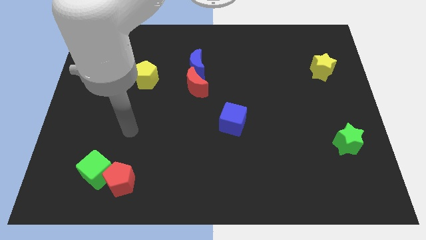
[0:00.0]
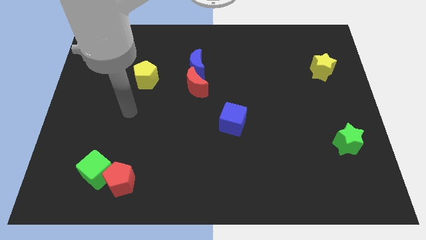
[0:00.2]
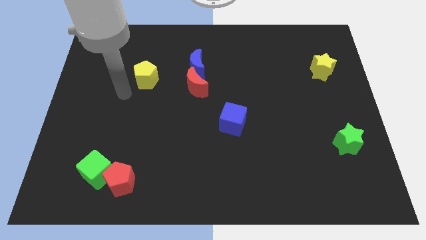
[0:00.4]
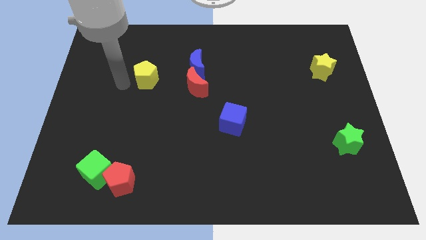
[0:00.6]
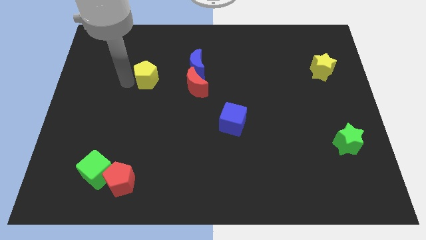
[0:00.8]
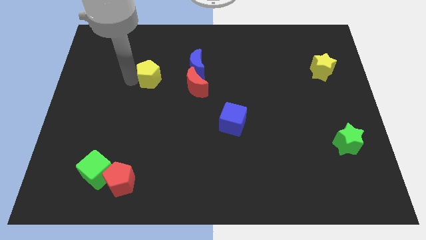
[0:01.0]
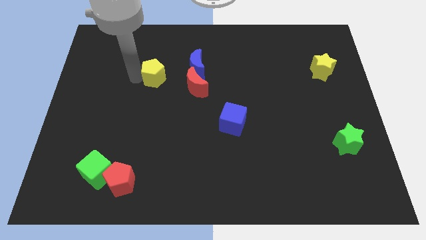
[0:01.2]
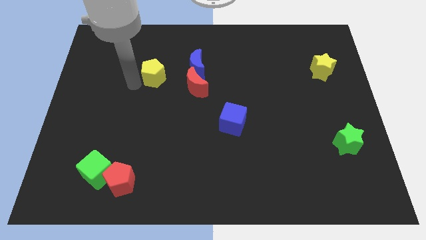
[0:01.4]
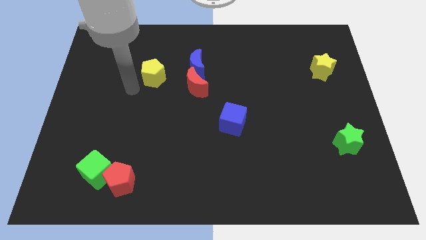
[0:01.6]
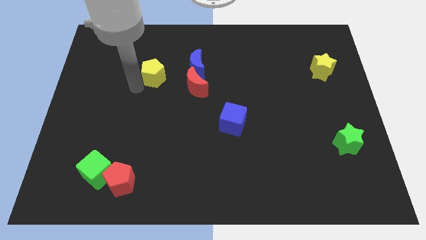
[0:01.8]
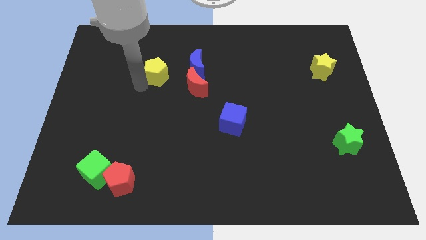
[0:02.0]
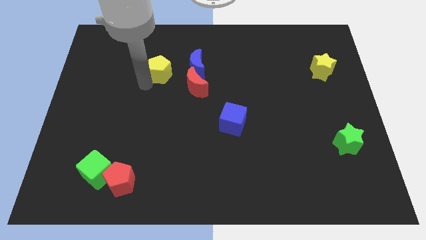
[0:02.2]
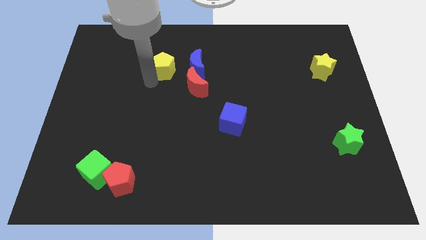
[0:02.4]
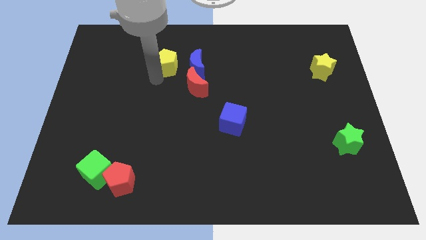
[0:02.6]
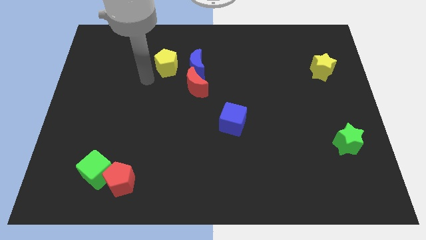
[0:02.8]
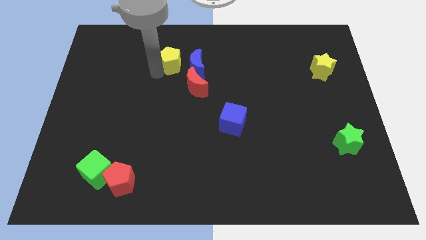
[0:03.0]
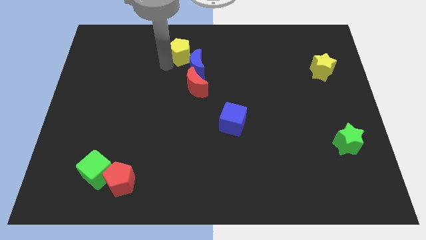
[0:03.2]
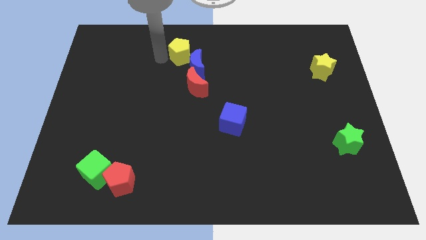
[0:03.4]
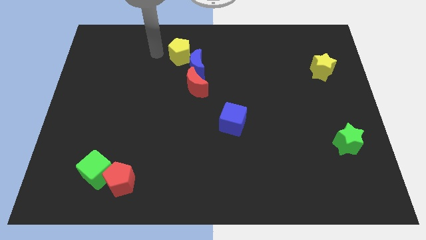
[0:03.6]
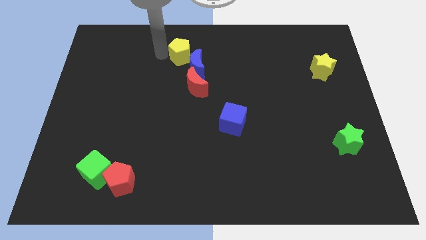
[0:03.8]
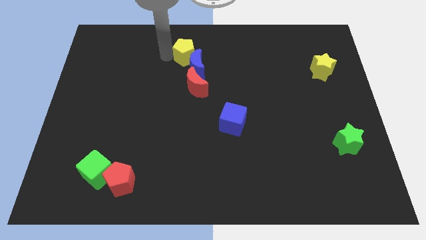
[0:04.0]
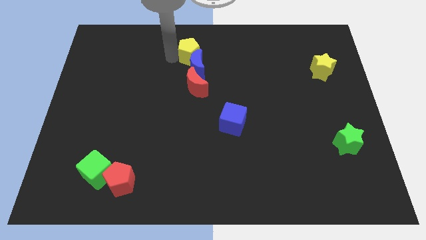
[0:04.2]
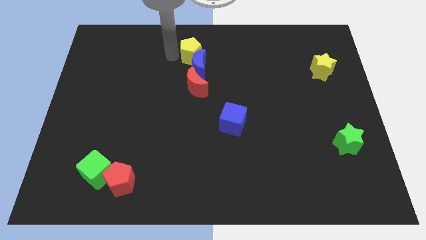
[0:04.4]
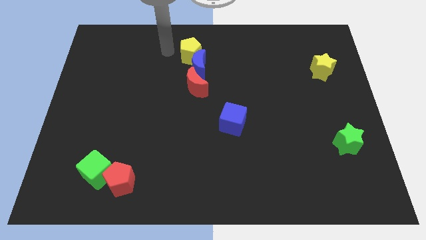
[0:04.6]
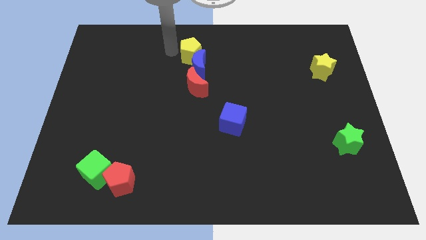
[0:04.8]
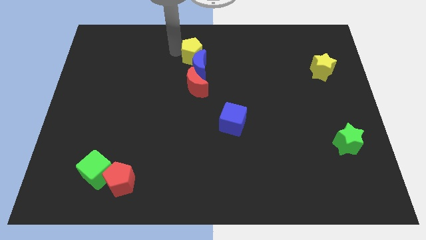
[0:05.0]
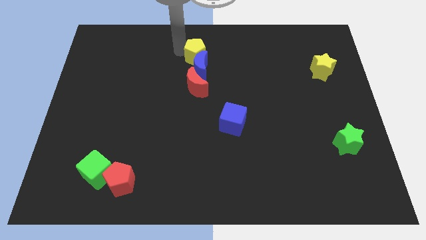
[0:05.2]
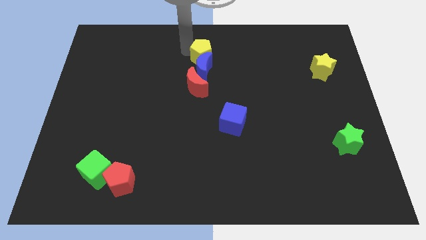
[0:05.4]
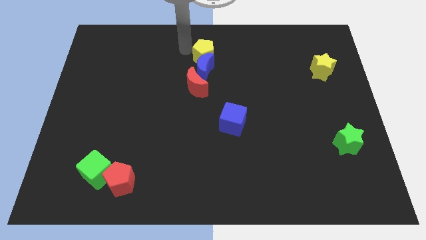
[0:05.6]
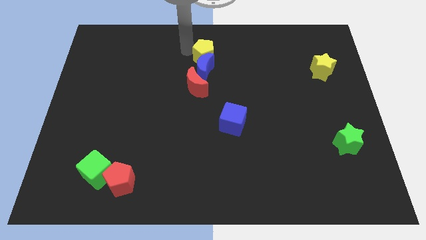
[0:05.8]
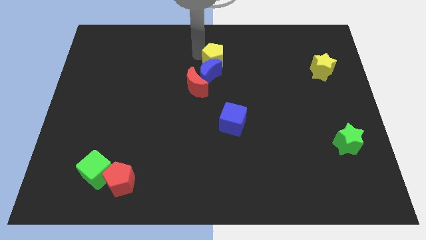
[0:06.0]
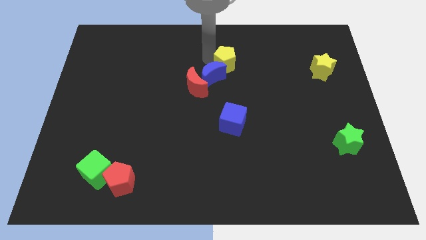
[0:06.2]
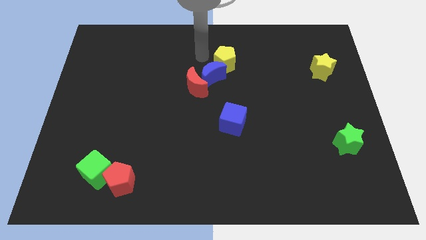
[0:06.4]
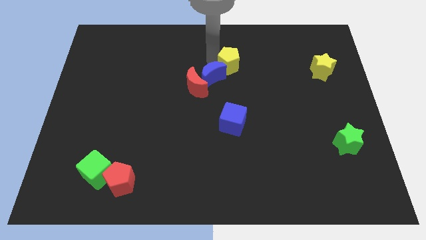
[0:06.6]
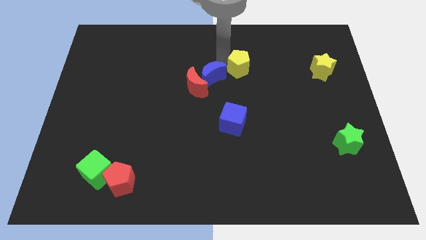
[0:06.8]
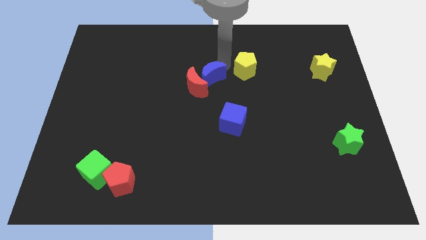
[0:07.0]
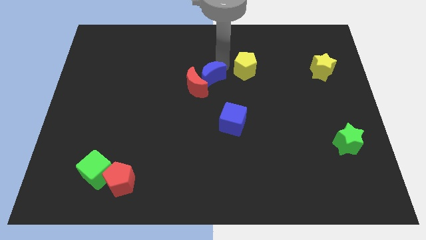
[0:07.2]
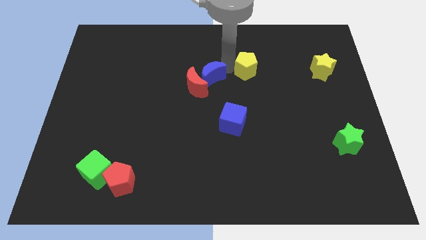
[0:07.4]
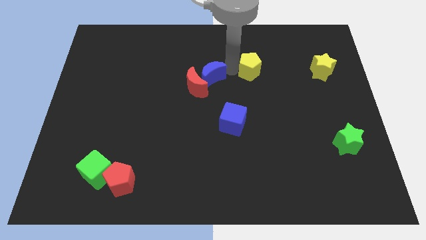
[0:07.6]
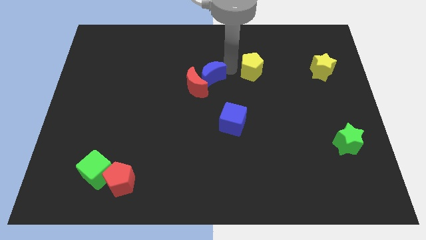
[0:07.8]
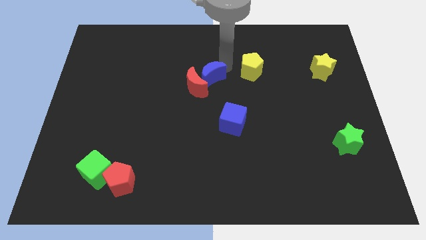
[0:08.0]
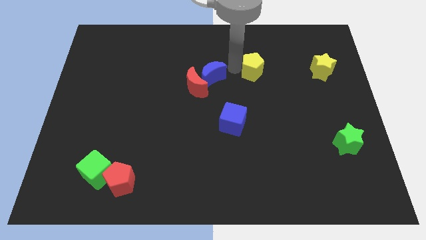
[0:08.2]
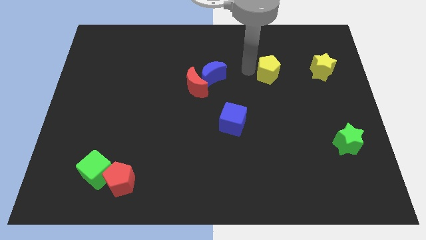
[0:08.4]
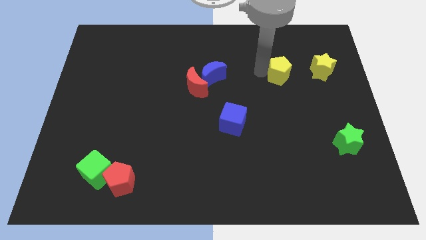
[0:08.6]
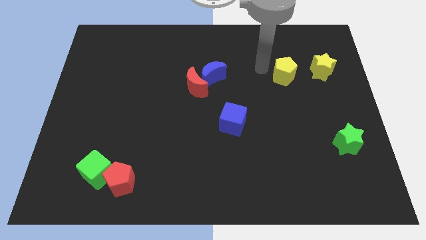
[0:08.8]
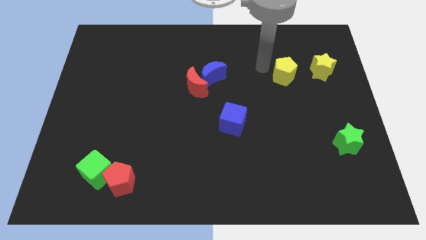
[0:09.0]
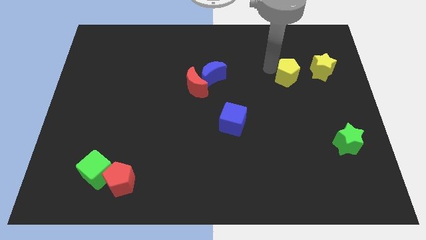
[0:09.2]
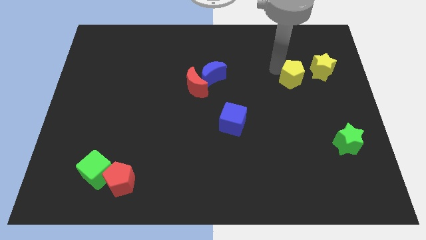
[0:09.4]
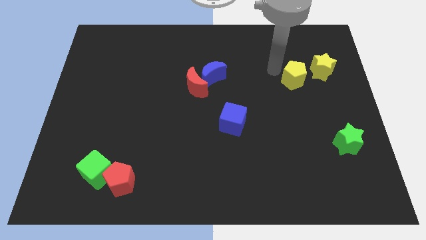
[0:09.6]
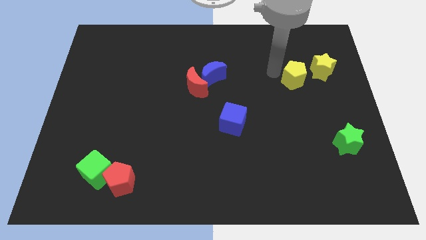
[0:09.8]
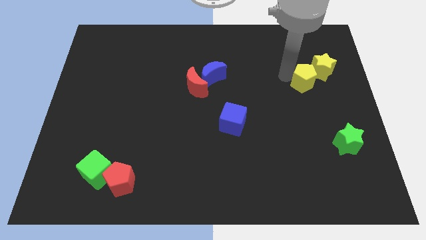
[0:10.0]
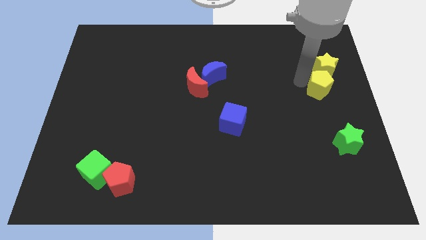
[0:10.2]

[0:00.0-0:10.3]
put the yellow pentagon to the right side

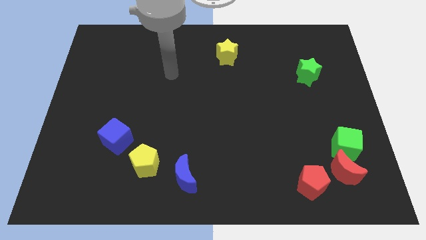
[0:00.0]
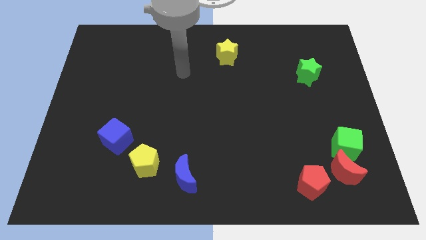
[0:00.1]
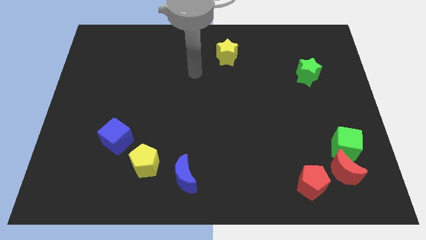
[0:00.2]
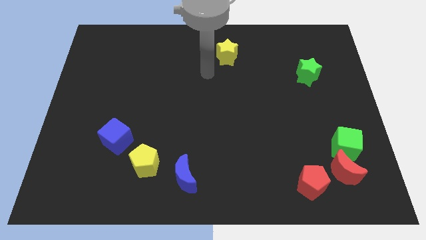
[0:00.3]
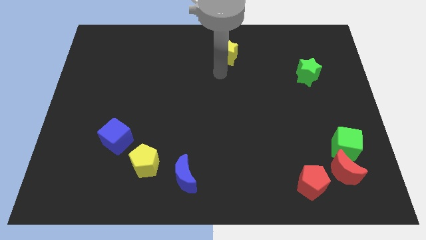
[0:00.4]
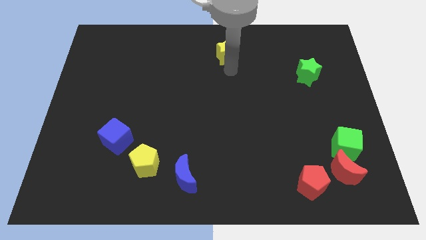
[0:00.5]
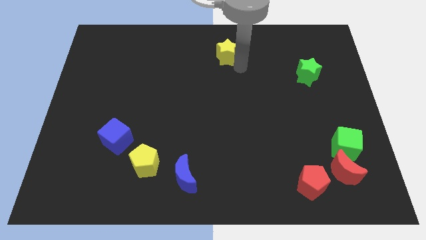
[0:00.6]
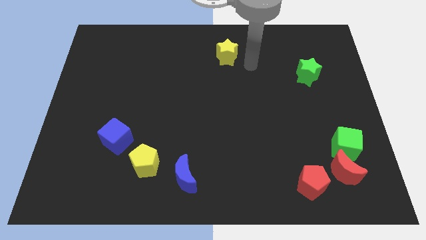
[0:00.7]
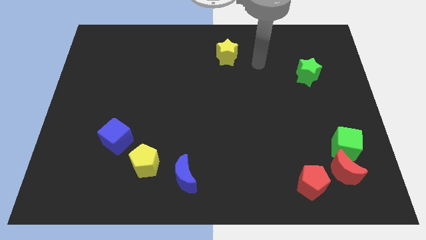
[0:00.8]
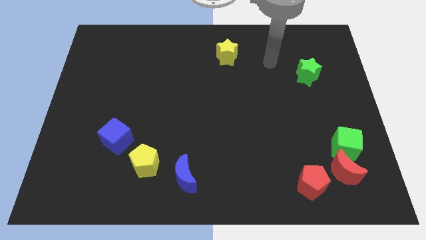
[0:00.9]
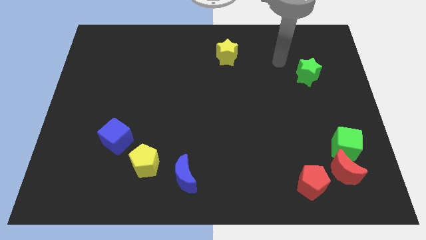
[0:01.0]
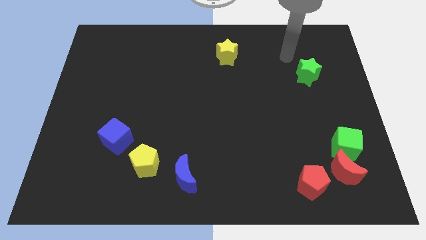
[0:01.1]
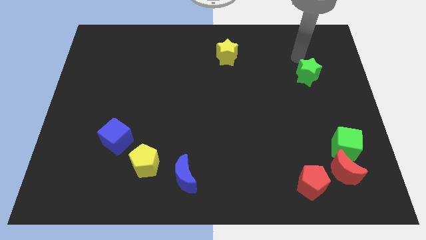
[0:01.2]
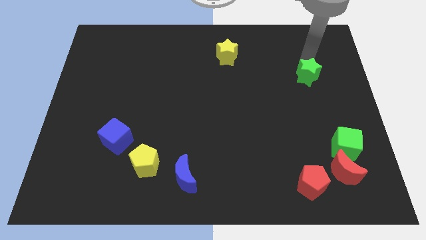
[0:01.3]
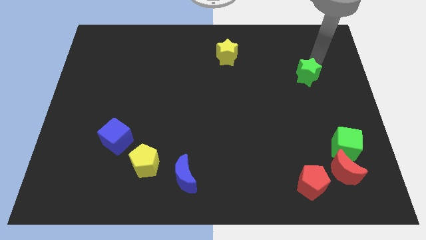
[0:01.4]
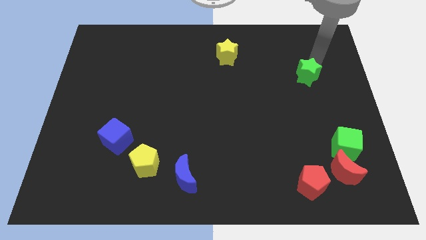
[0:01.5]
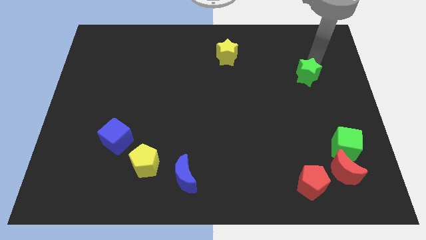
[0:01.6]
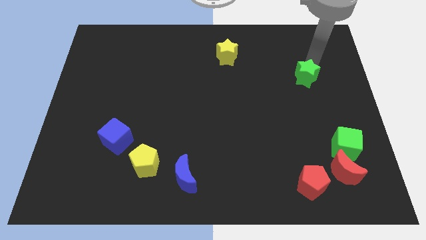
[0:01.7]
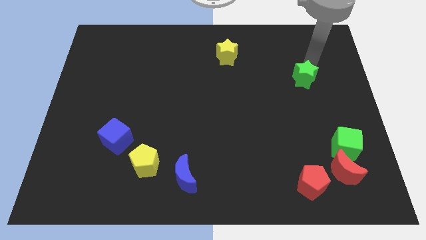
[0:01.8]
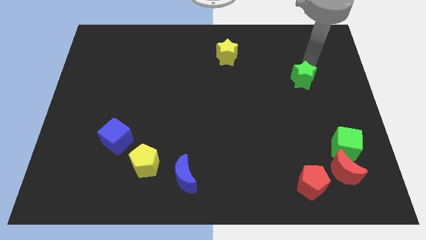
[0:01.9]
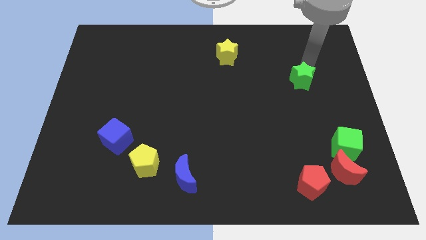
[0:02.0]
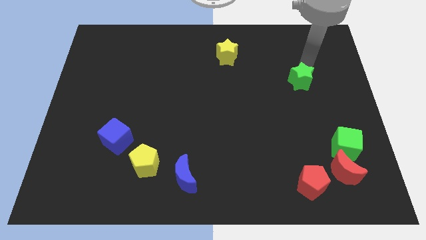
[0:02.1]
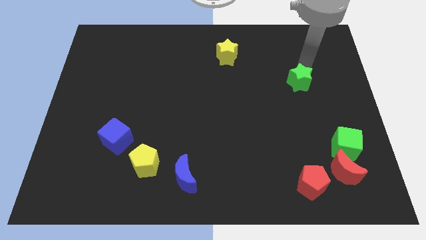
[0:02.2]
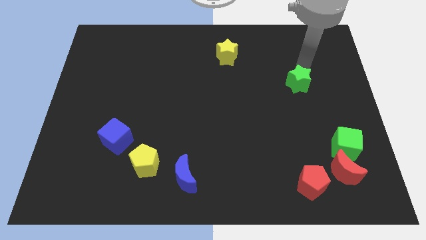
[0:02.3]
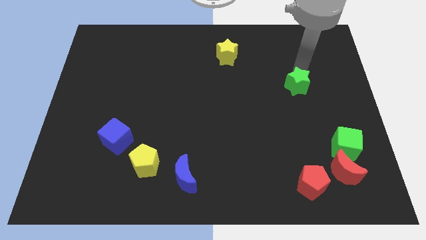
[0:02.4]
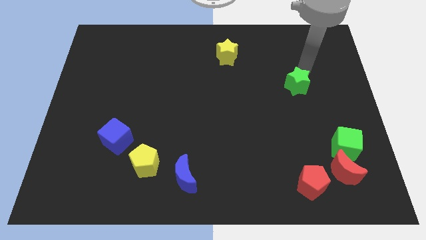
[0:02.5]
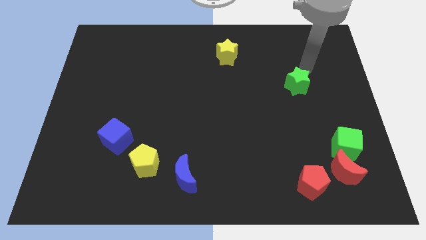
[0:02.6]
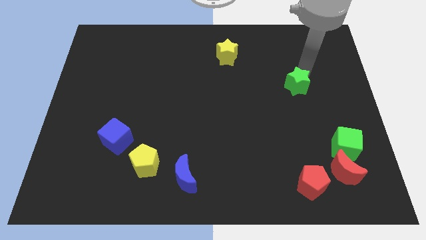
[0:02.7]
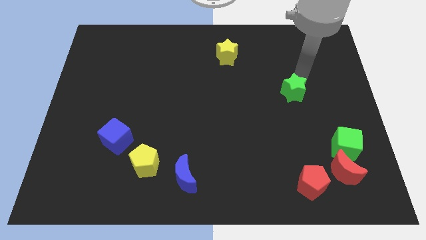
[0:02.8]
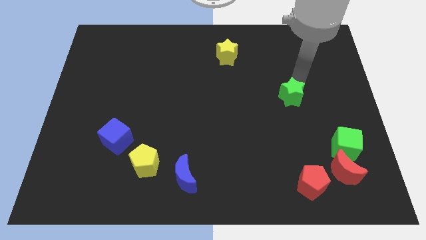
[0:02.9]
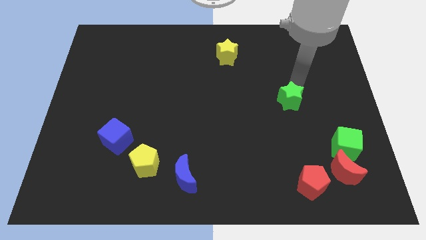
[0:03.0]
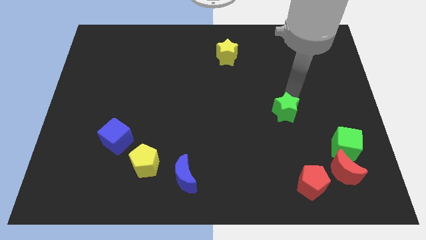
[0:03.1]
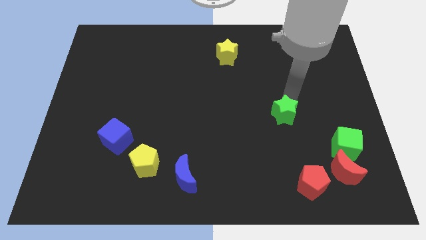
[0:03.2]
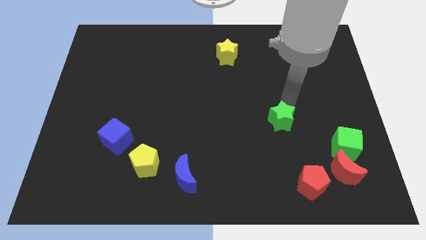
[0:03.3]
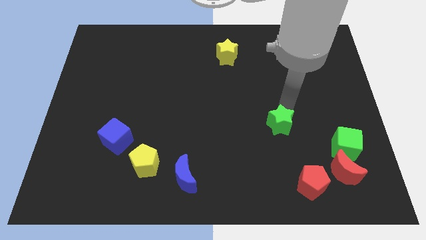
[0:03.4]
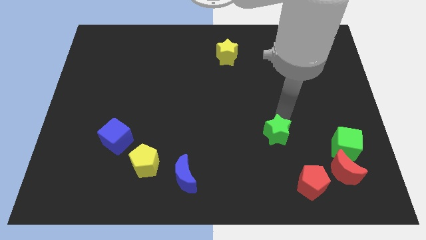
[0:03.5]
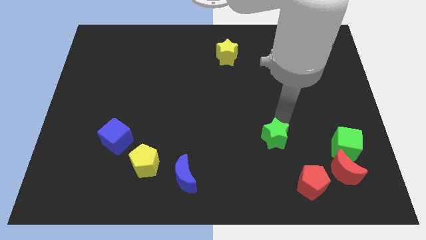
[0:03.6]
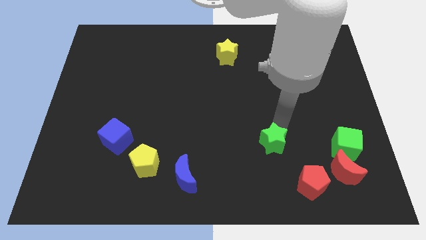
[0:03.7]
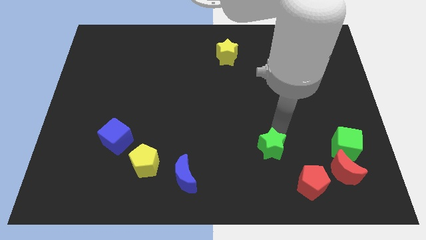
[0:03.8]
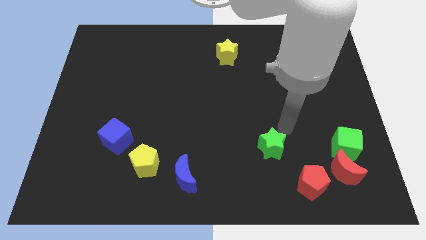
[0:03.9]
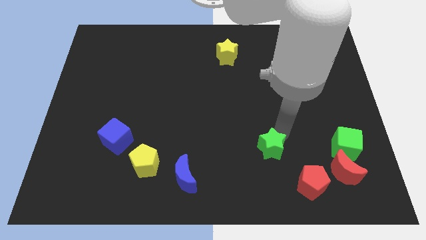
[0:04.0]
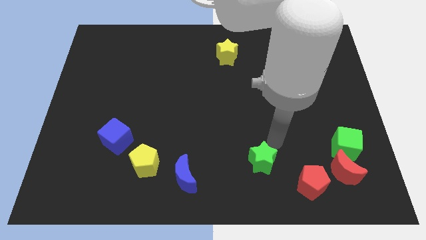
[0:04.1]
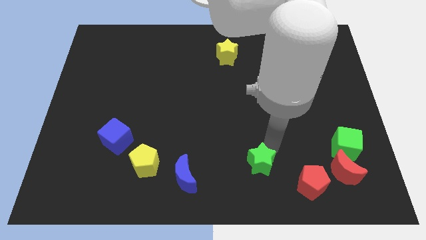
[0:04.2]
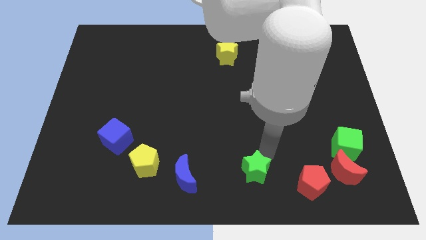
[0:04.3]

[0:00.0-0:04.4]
put the green star to the bottom side
